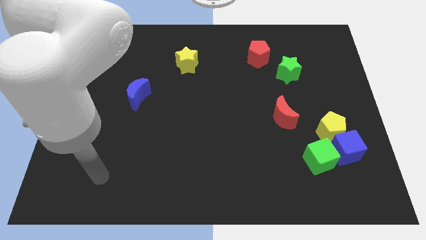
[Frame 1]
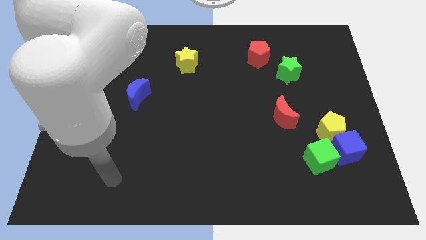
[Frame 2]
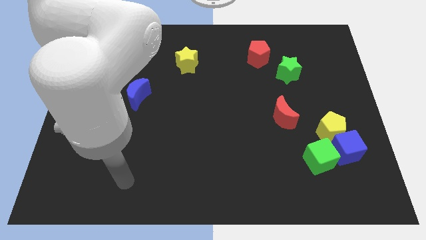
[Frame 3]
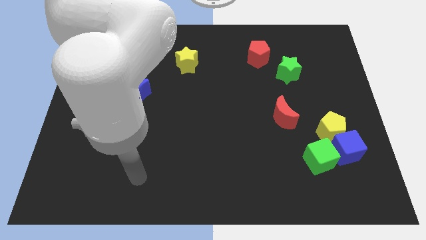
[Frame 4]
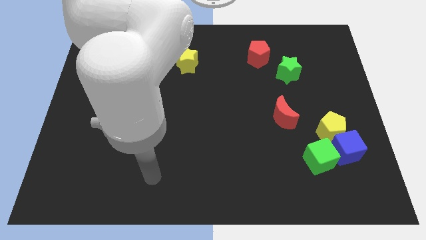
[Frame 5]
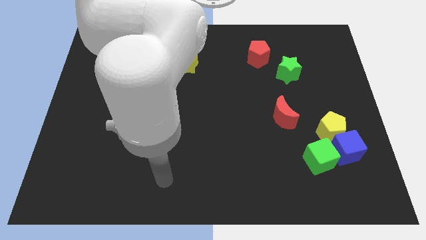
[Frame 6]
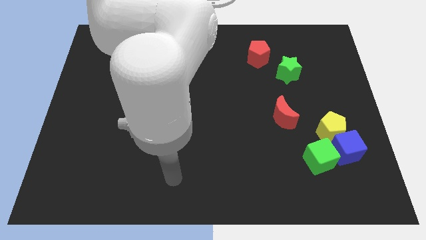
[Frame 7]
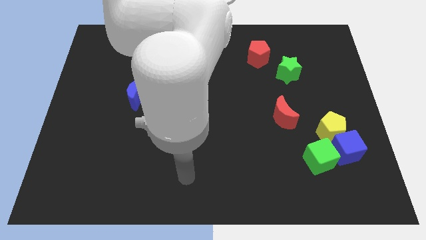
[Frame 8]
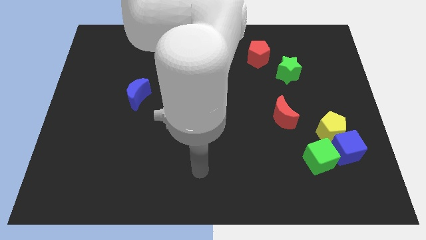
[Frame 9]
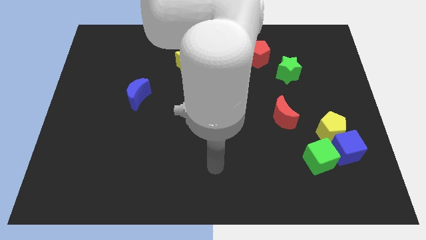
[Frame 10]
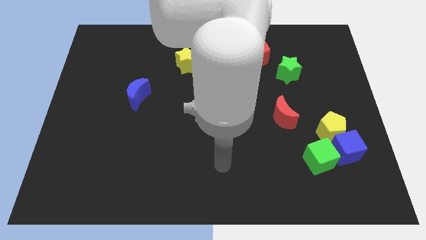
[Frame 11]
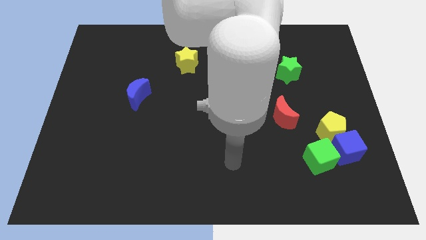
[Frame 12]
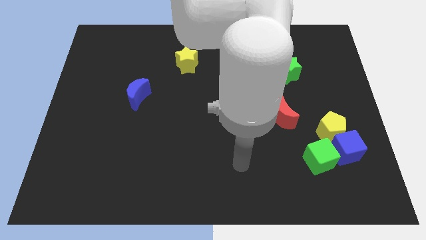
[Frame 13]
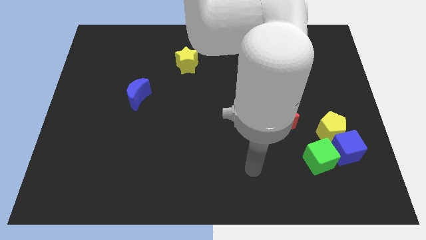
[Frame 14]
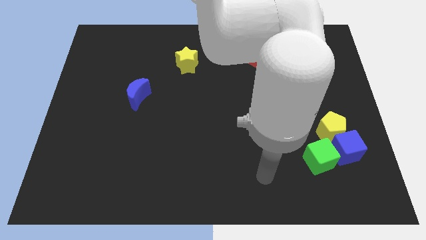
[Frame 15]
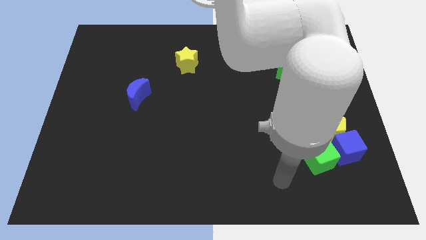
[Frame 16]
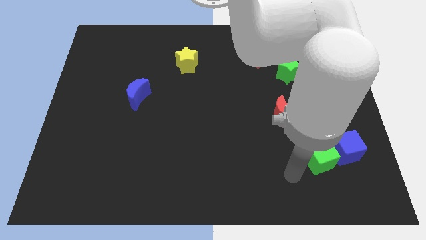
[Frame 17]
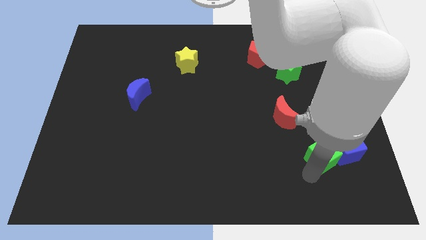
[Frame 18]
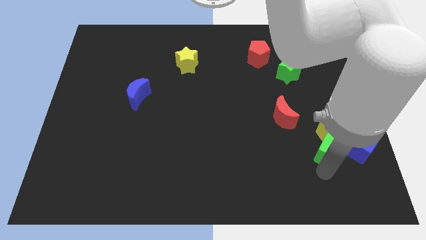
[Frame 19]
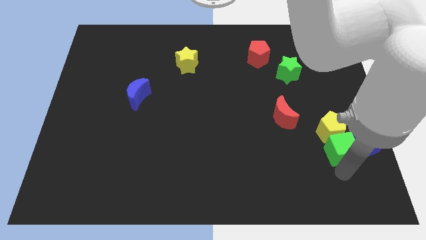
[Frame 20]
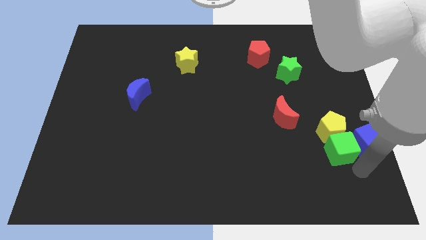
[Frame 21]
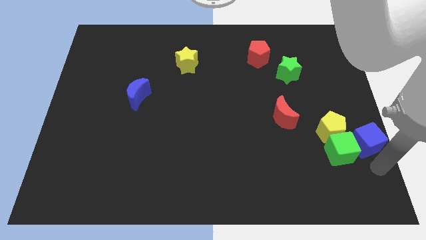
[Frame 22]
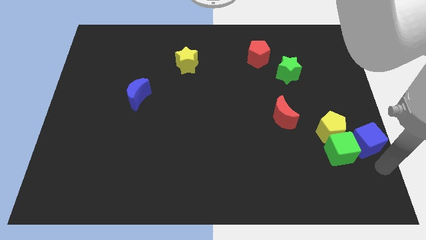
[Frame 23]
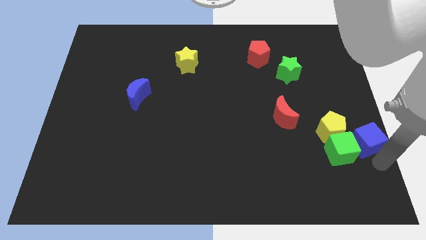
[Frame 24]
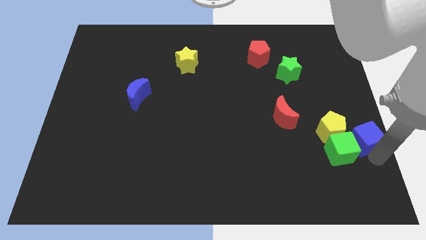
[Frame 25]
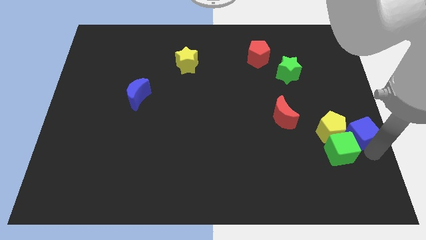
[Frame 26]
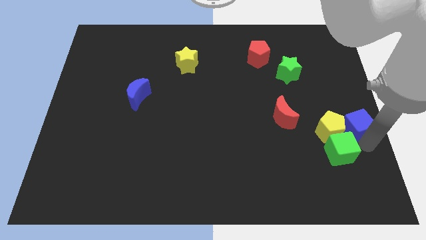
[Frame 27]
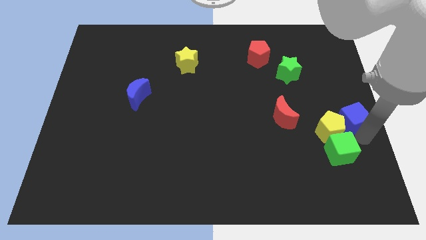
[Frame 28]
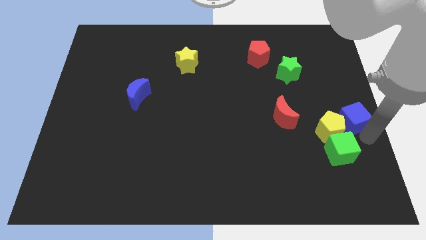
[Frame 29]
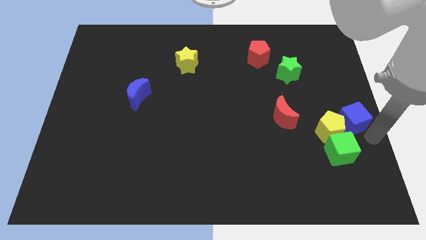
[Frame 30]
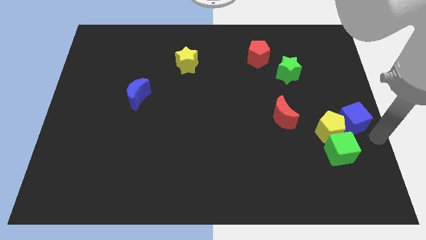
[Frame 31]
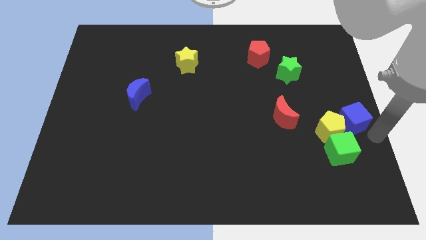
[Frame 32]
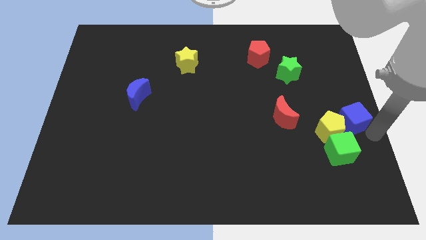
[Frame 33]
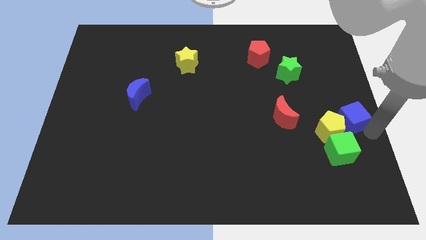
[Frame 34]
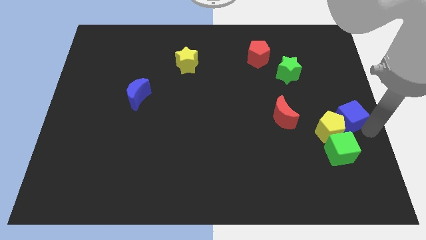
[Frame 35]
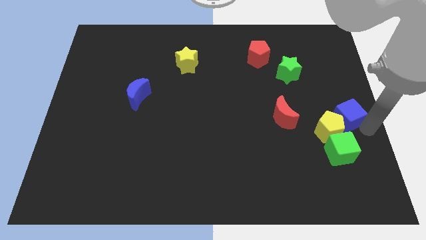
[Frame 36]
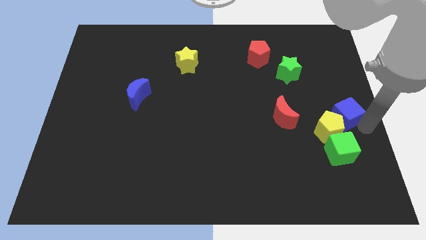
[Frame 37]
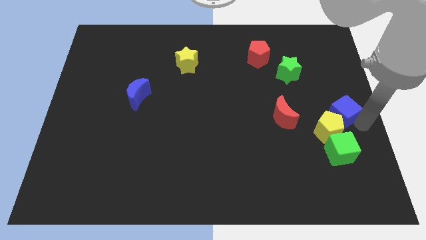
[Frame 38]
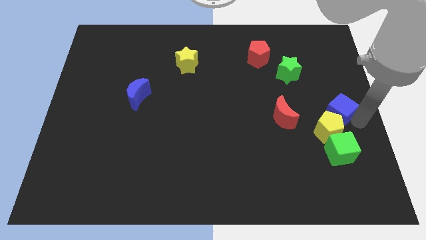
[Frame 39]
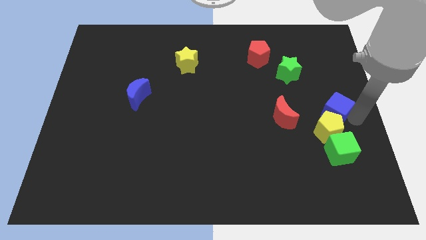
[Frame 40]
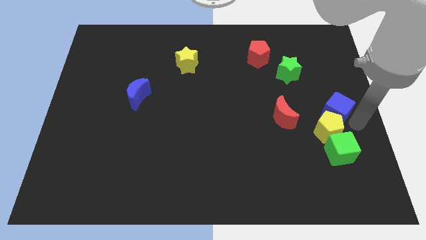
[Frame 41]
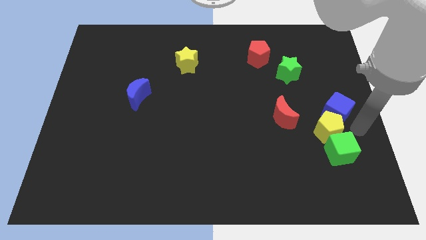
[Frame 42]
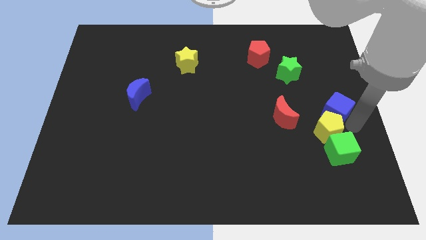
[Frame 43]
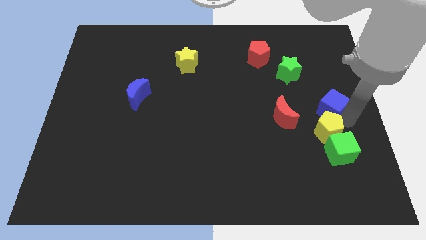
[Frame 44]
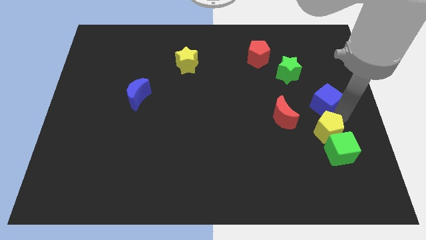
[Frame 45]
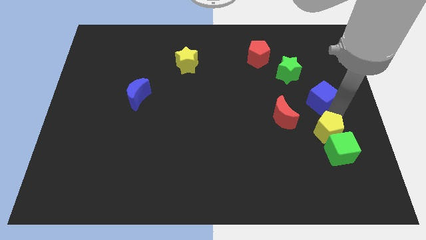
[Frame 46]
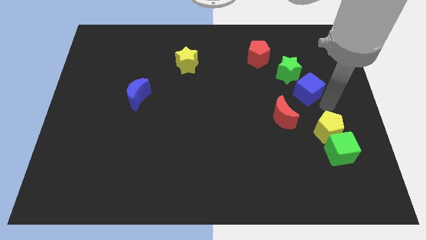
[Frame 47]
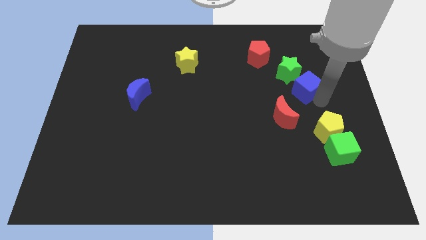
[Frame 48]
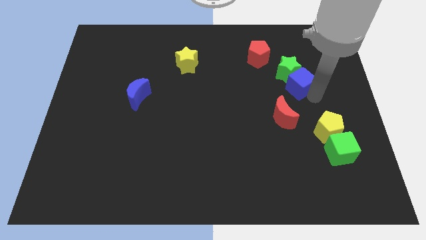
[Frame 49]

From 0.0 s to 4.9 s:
slide the blue cube towards the green star

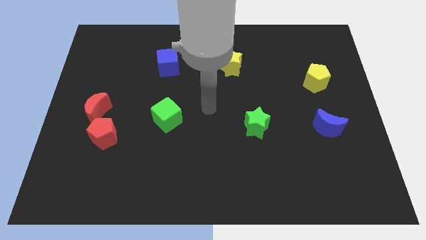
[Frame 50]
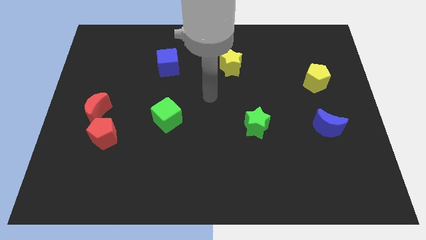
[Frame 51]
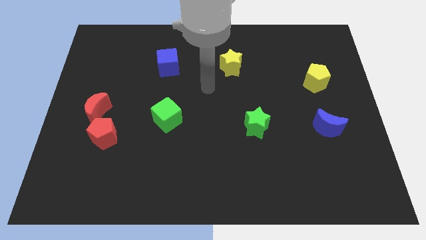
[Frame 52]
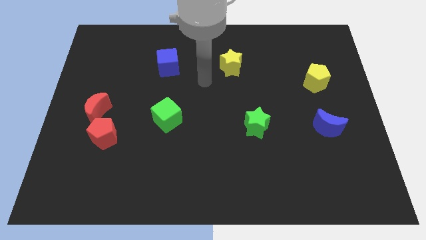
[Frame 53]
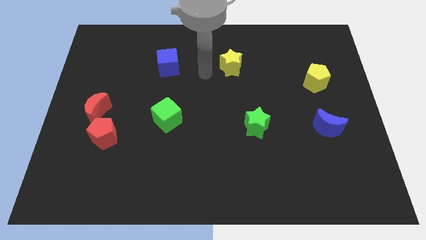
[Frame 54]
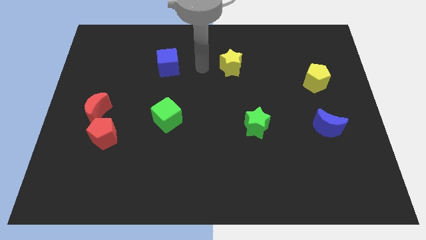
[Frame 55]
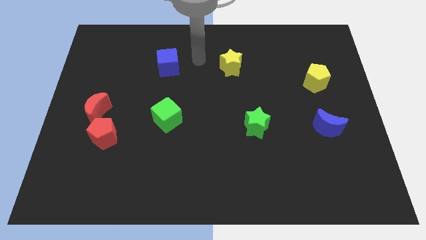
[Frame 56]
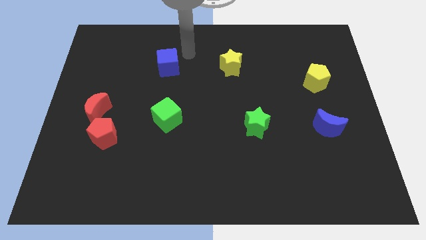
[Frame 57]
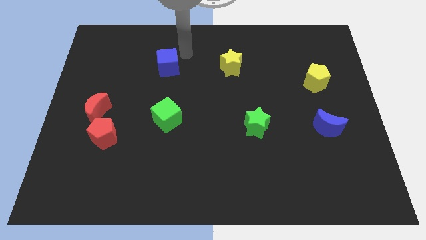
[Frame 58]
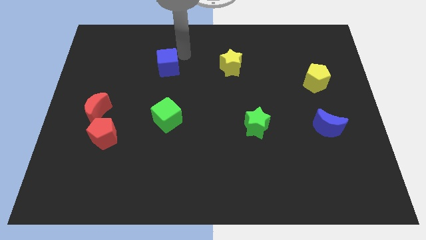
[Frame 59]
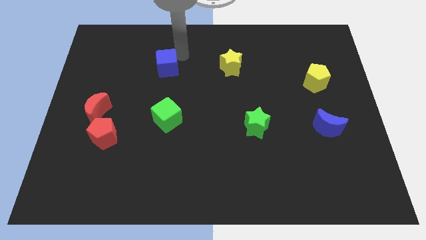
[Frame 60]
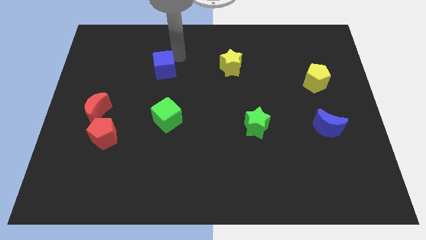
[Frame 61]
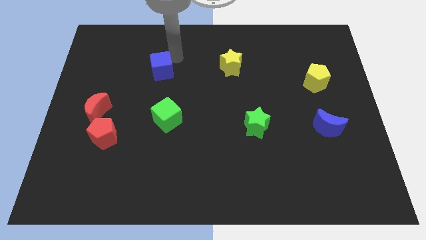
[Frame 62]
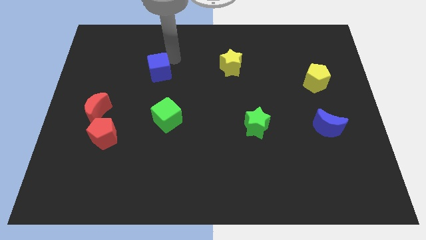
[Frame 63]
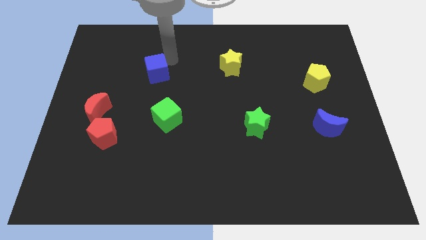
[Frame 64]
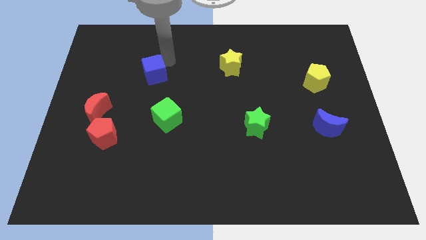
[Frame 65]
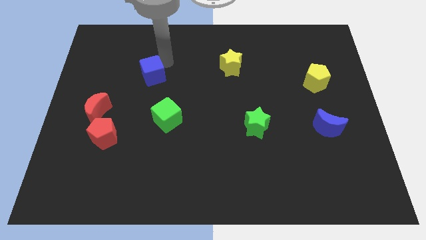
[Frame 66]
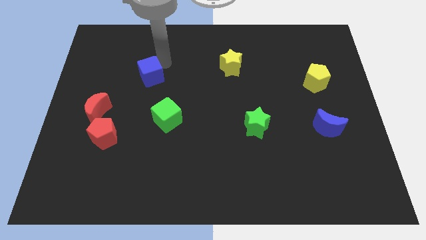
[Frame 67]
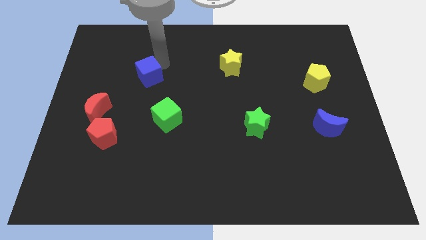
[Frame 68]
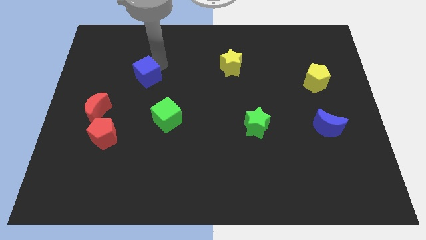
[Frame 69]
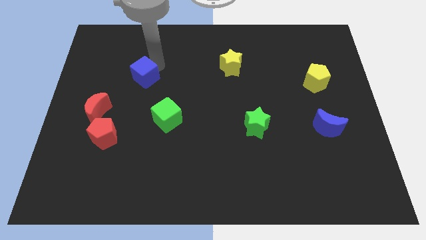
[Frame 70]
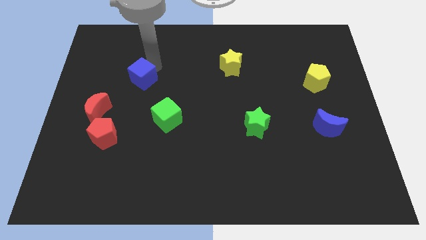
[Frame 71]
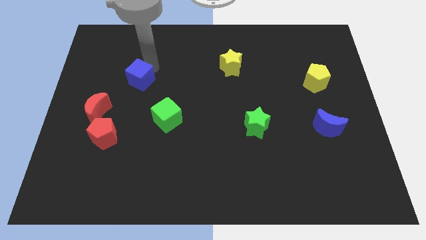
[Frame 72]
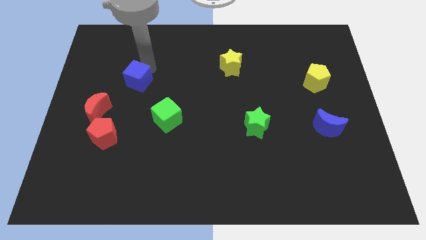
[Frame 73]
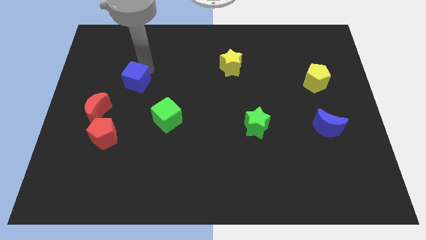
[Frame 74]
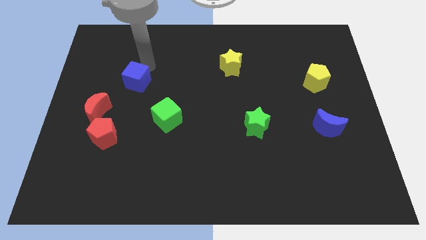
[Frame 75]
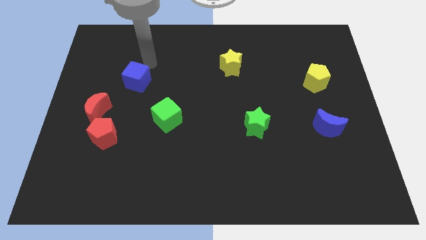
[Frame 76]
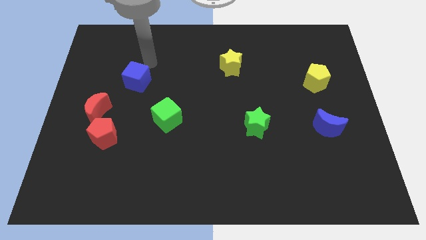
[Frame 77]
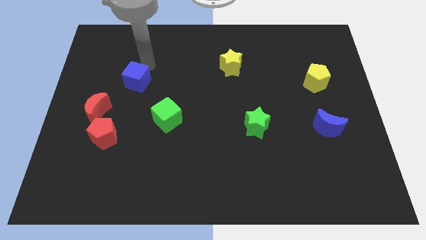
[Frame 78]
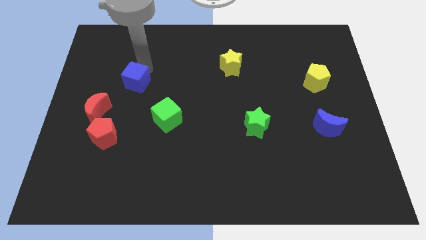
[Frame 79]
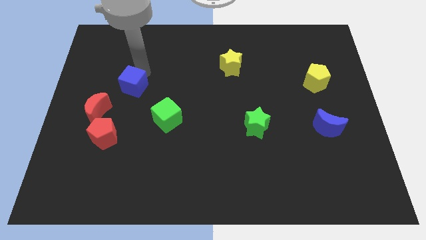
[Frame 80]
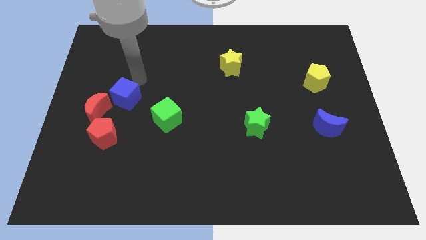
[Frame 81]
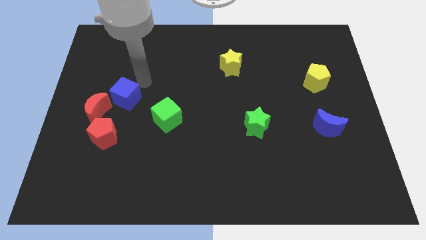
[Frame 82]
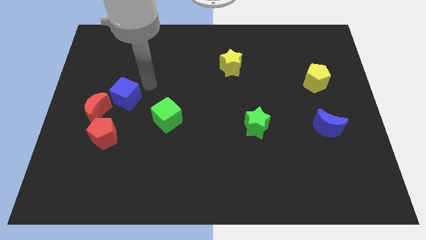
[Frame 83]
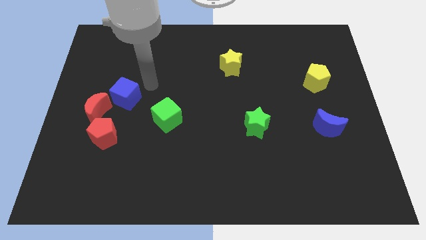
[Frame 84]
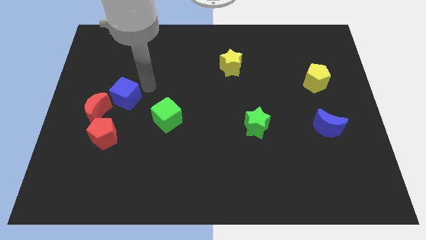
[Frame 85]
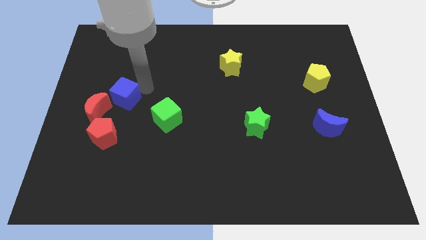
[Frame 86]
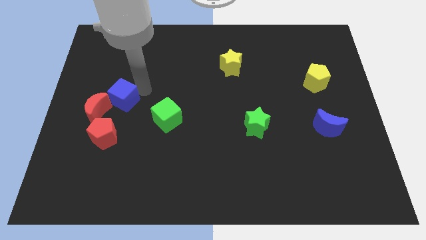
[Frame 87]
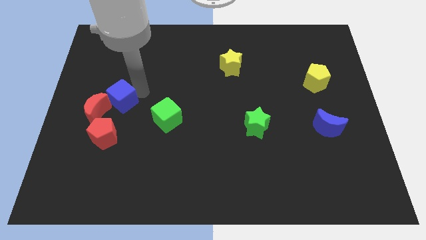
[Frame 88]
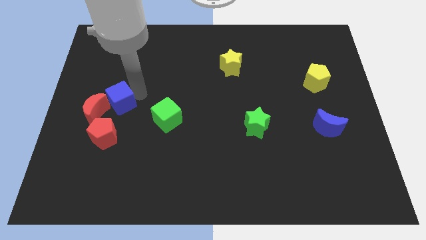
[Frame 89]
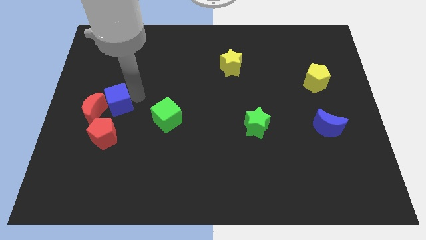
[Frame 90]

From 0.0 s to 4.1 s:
put the blue cube towards the red moon
